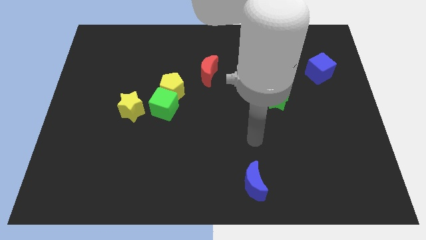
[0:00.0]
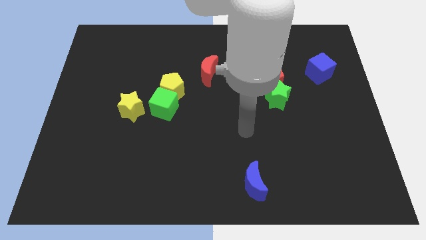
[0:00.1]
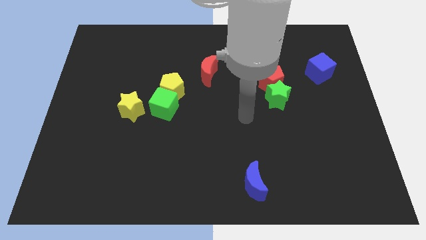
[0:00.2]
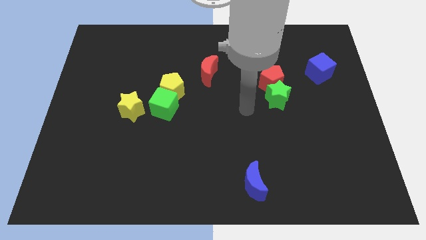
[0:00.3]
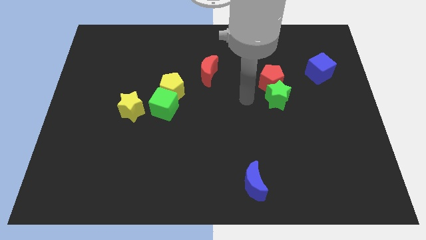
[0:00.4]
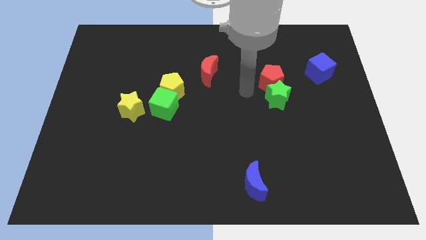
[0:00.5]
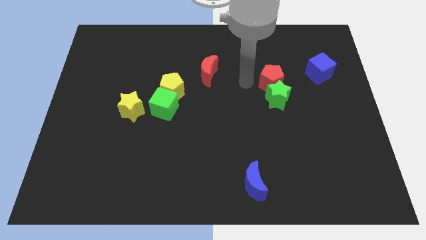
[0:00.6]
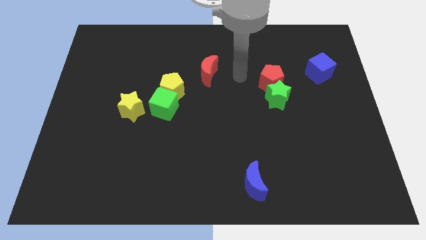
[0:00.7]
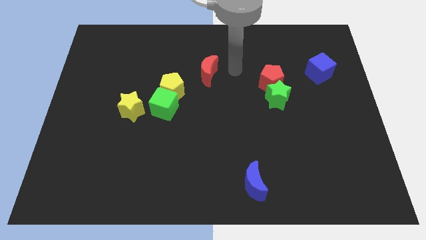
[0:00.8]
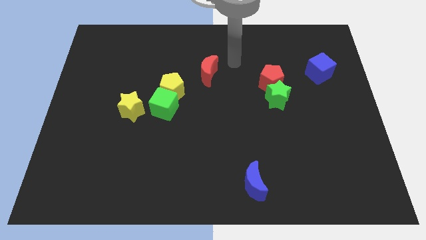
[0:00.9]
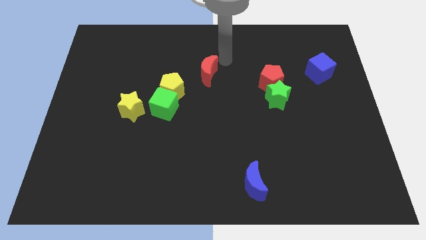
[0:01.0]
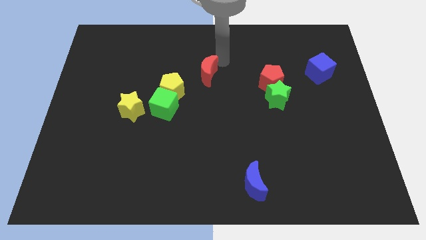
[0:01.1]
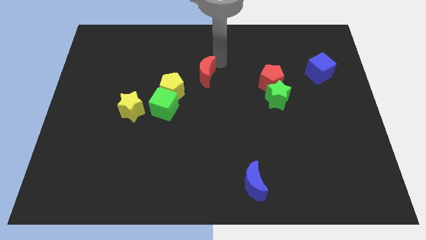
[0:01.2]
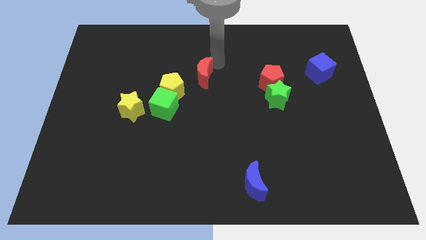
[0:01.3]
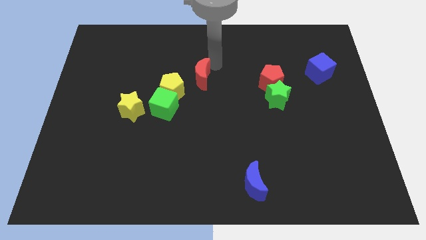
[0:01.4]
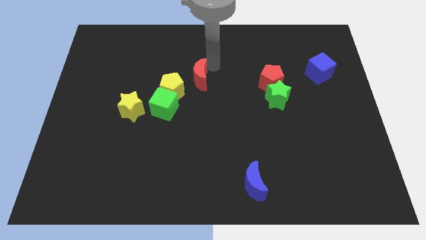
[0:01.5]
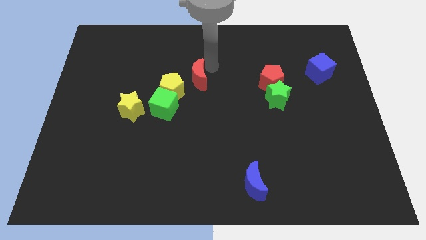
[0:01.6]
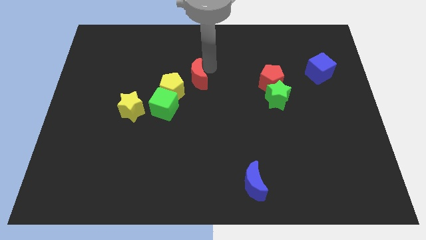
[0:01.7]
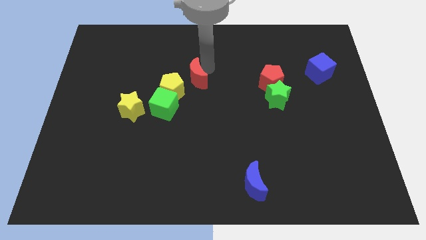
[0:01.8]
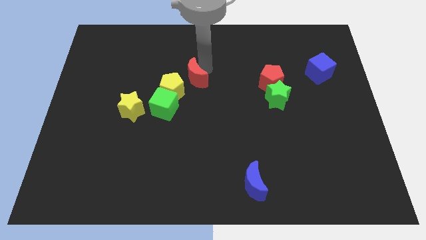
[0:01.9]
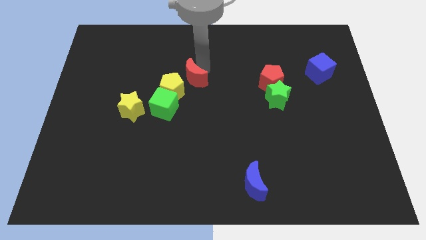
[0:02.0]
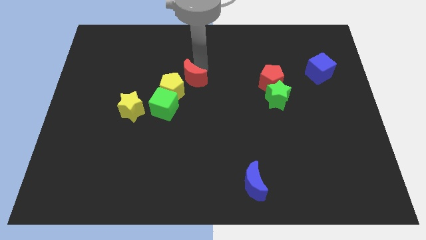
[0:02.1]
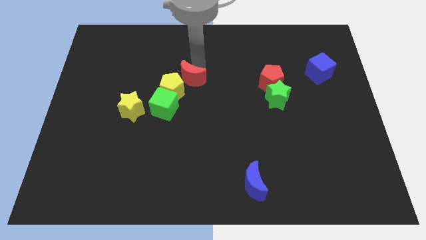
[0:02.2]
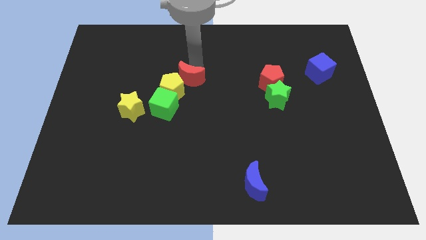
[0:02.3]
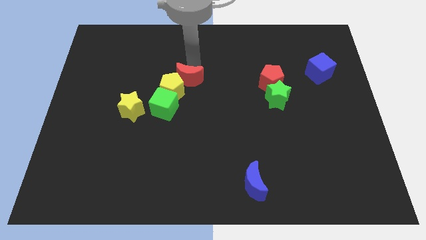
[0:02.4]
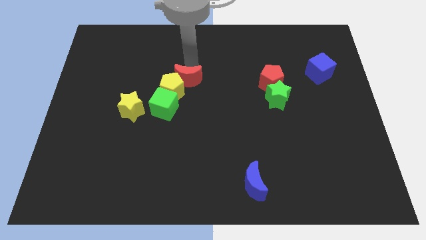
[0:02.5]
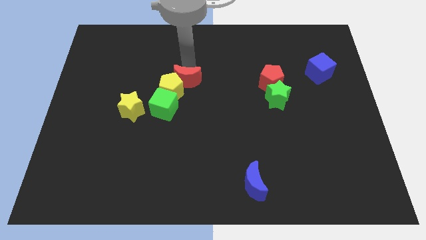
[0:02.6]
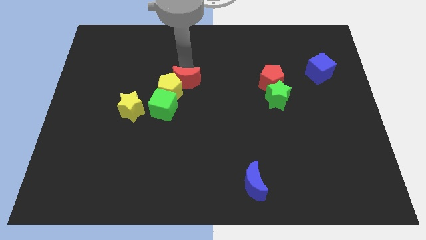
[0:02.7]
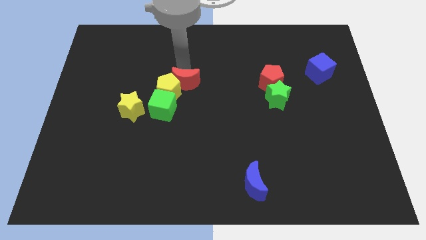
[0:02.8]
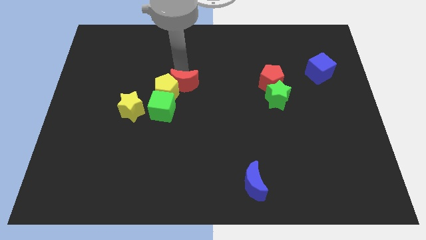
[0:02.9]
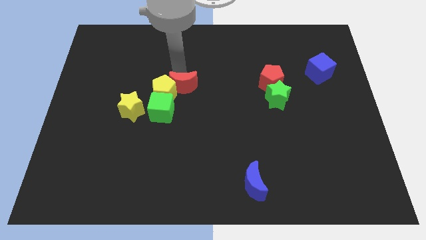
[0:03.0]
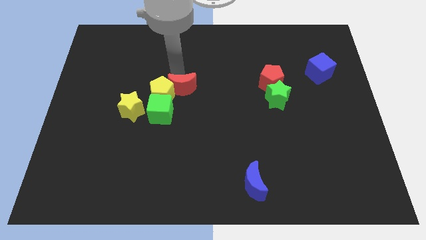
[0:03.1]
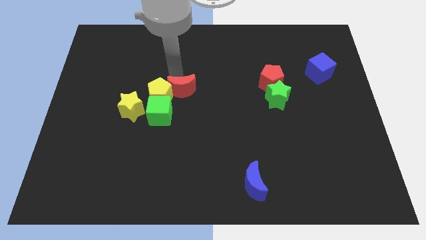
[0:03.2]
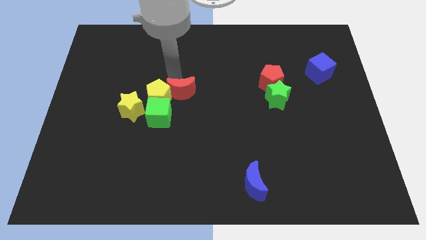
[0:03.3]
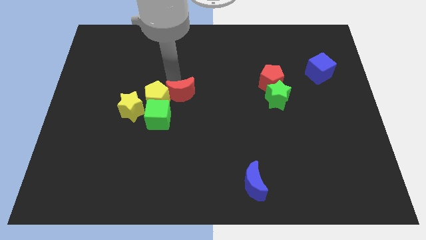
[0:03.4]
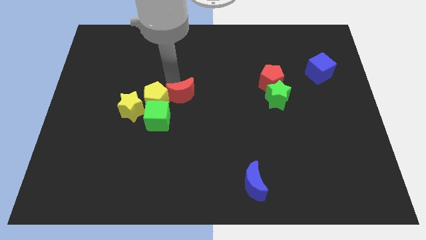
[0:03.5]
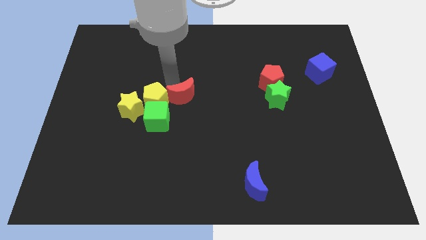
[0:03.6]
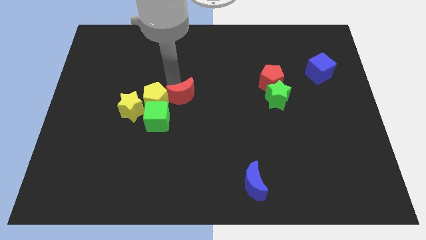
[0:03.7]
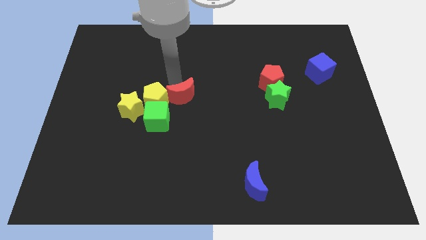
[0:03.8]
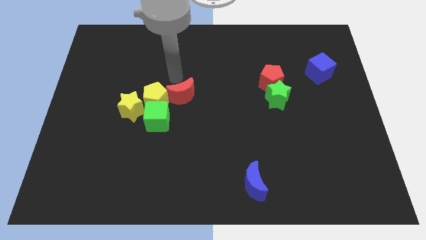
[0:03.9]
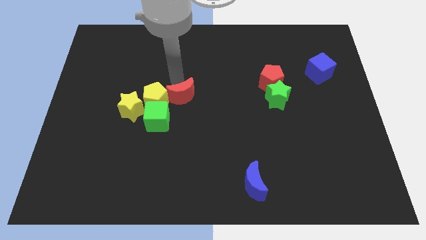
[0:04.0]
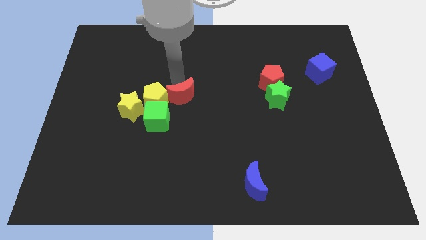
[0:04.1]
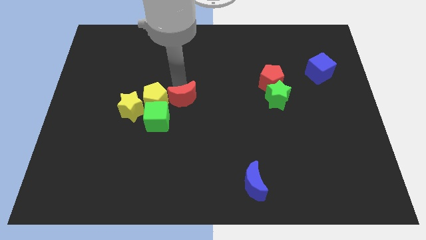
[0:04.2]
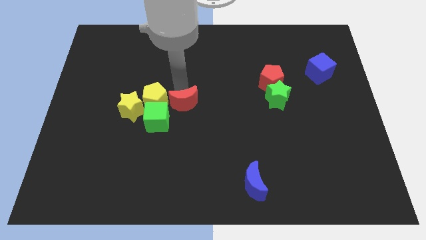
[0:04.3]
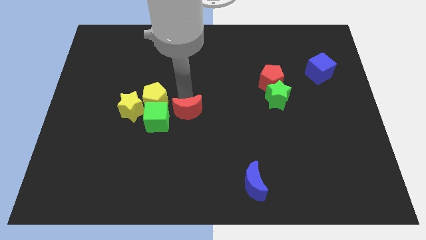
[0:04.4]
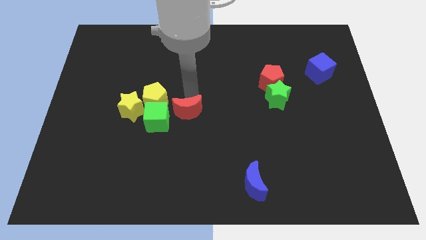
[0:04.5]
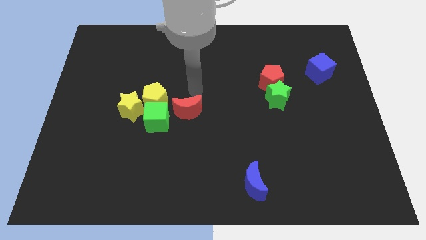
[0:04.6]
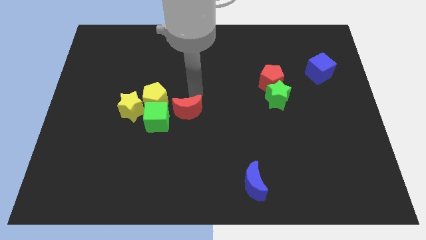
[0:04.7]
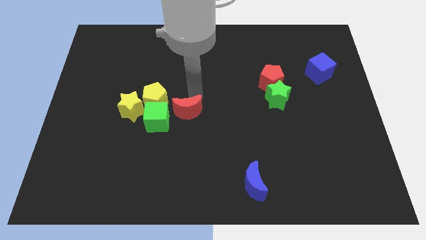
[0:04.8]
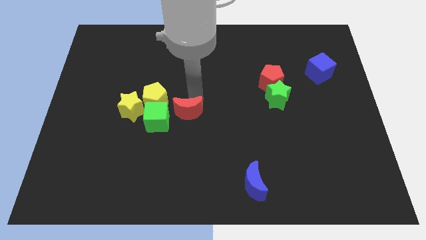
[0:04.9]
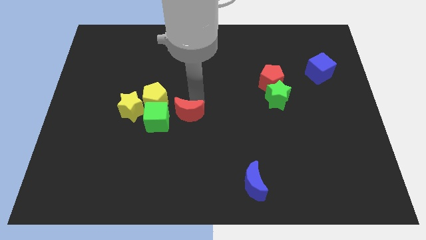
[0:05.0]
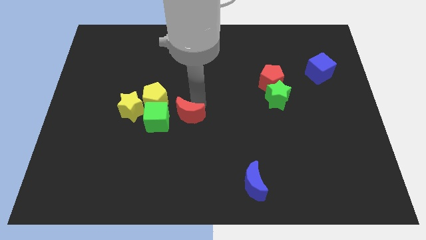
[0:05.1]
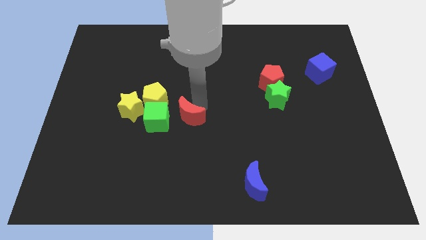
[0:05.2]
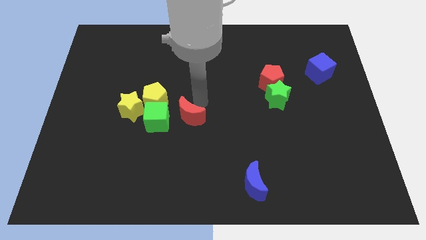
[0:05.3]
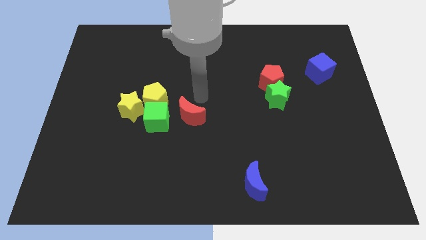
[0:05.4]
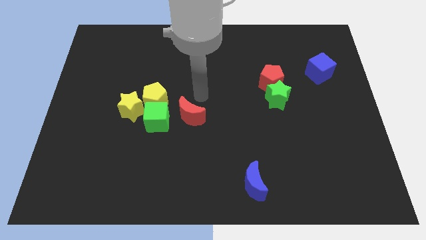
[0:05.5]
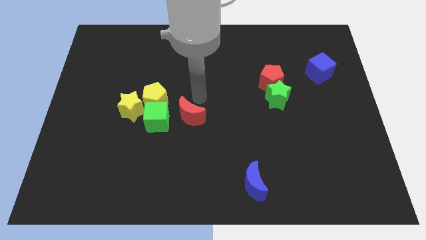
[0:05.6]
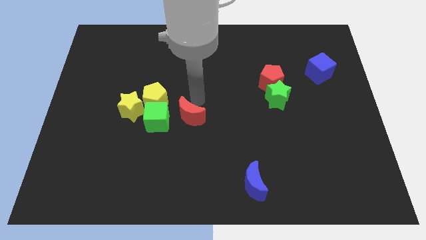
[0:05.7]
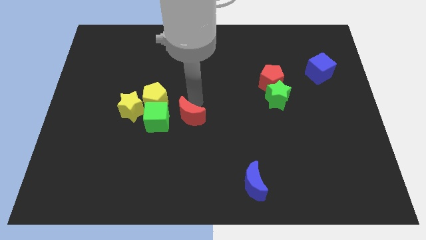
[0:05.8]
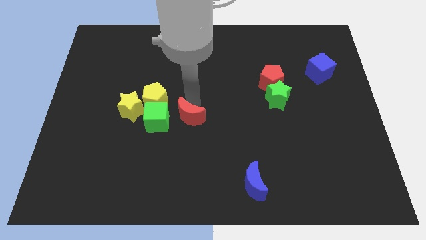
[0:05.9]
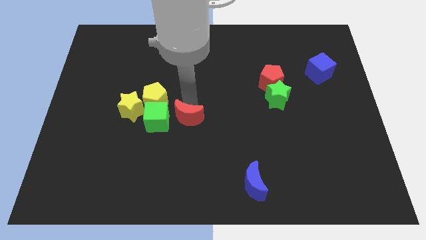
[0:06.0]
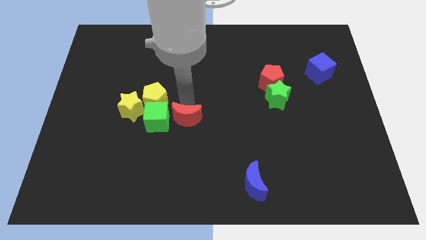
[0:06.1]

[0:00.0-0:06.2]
put the red moon to the bottom right of the green cube

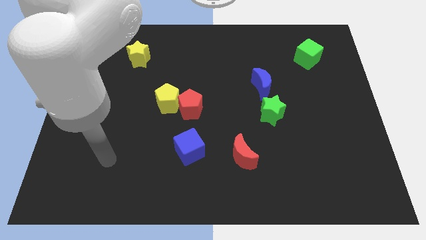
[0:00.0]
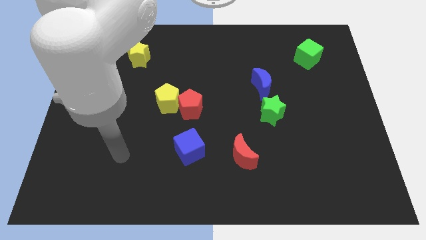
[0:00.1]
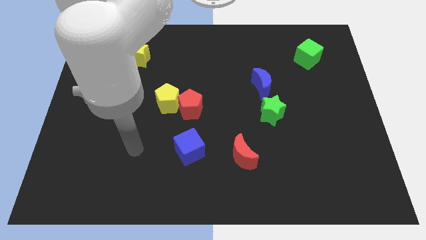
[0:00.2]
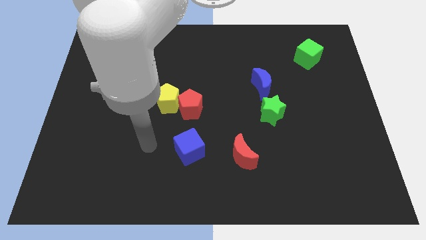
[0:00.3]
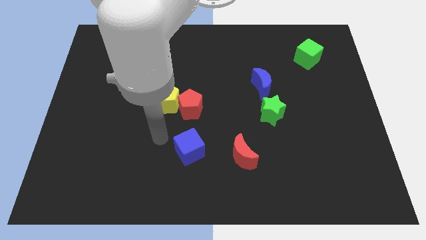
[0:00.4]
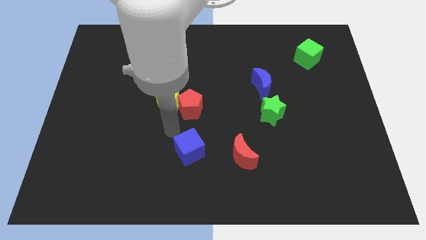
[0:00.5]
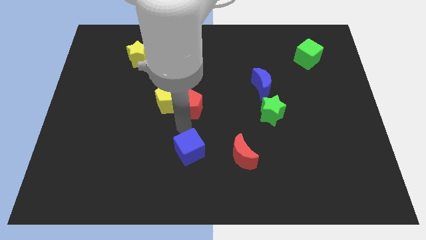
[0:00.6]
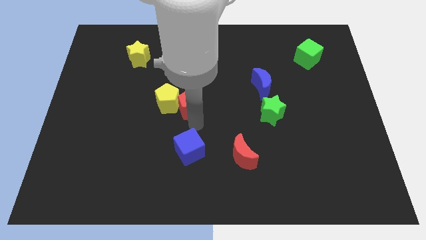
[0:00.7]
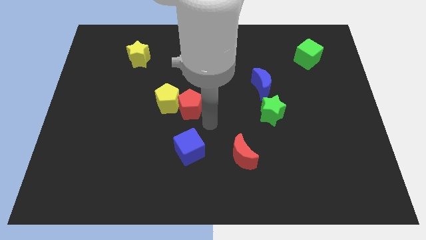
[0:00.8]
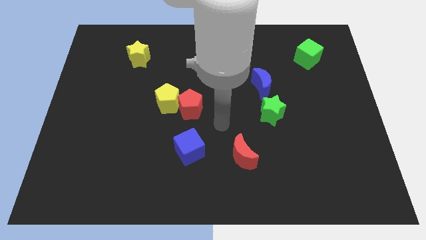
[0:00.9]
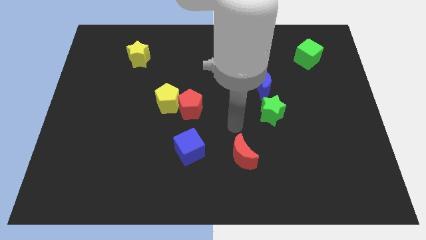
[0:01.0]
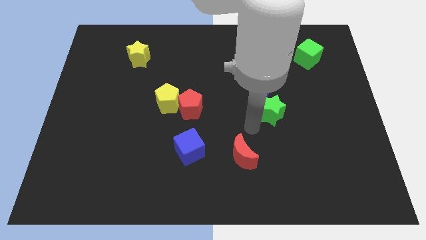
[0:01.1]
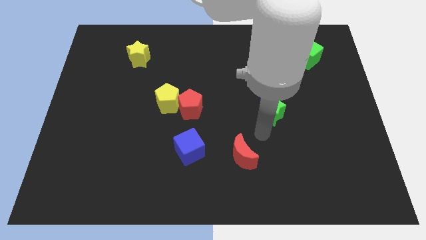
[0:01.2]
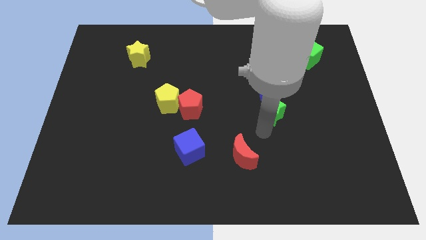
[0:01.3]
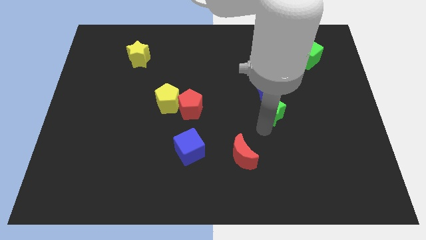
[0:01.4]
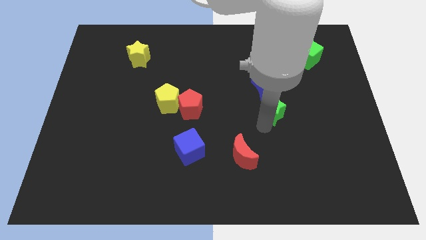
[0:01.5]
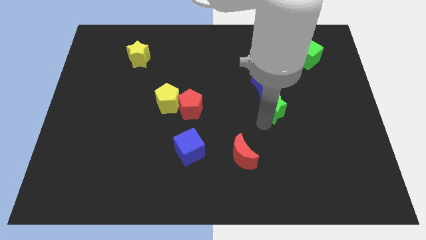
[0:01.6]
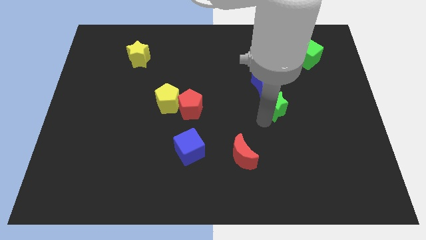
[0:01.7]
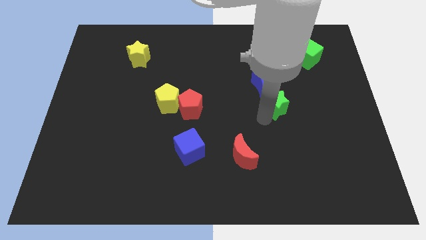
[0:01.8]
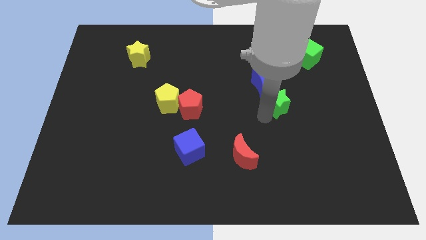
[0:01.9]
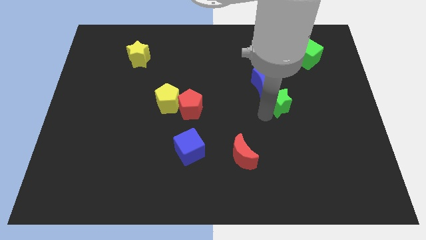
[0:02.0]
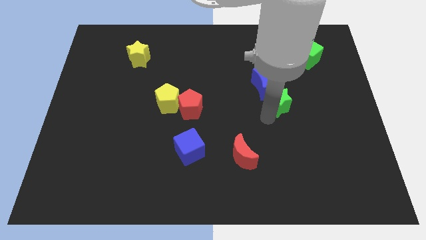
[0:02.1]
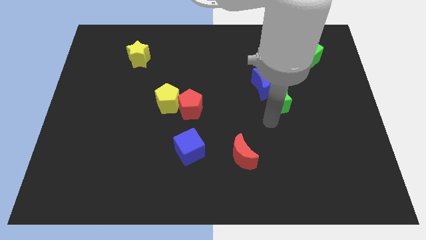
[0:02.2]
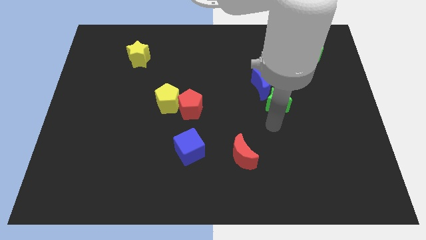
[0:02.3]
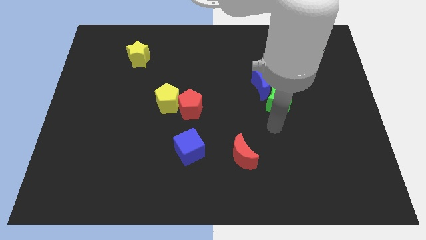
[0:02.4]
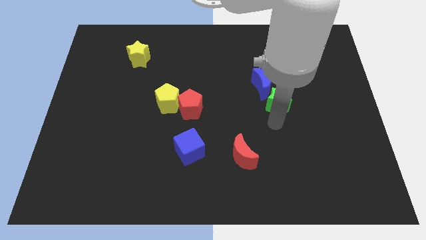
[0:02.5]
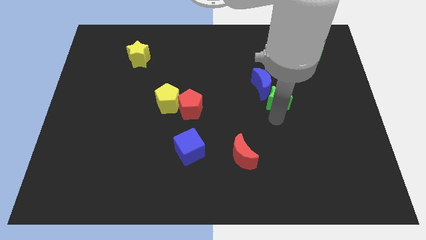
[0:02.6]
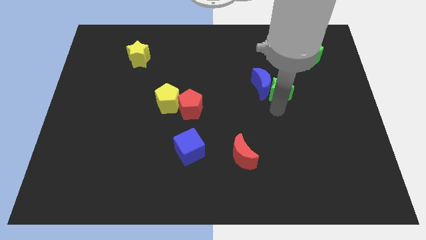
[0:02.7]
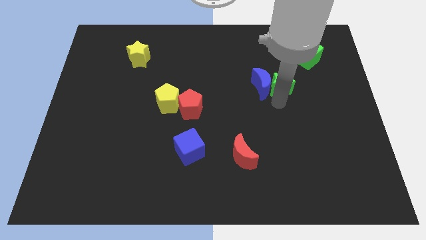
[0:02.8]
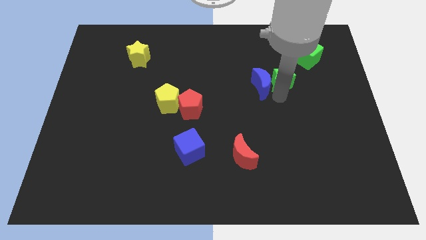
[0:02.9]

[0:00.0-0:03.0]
put the green star to the bottom left of the green cube
